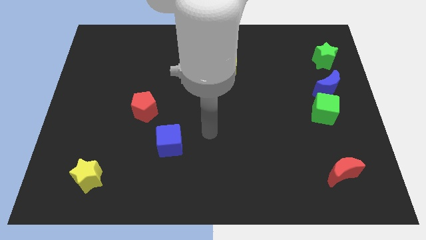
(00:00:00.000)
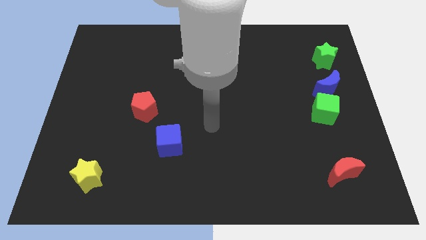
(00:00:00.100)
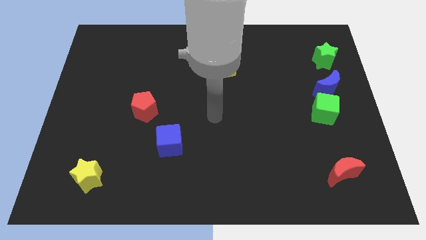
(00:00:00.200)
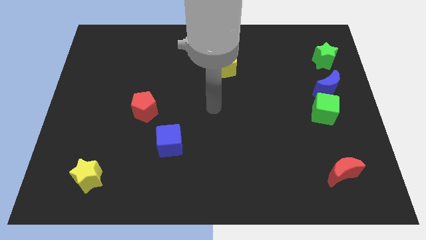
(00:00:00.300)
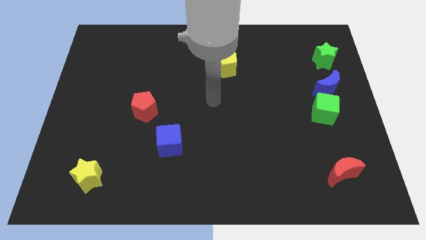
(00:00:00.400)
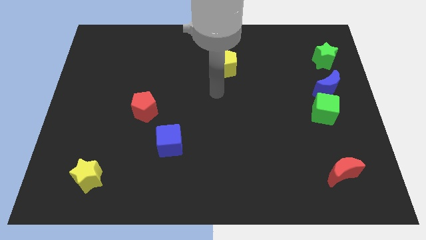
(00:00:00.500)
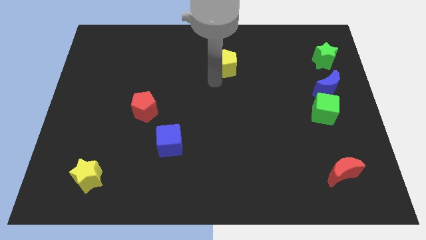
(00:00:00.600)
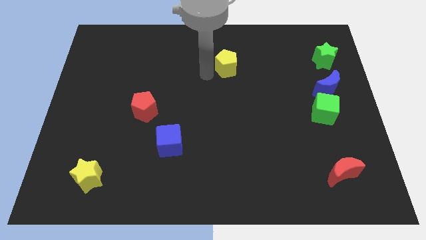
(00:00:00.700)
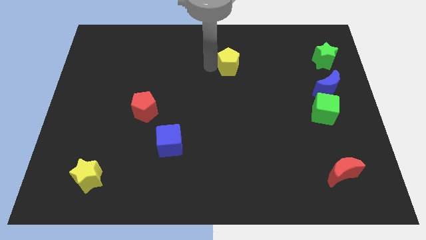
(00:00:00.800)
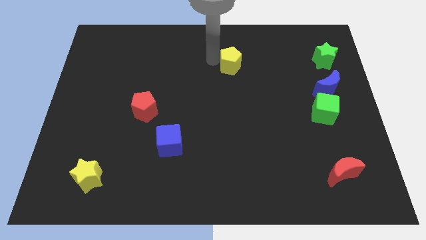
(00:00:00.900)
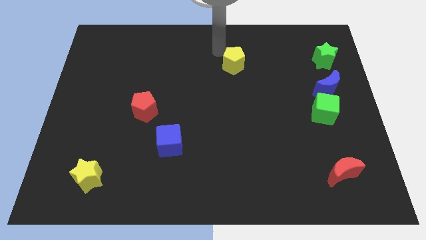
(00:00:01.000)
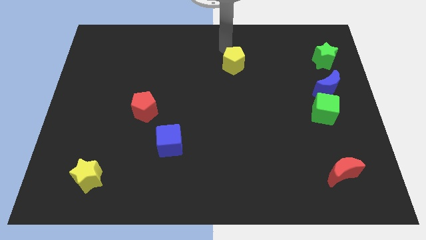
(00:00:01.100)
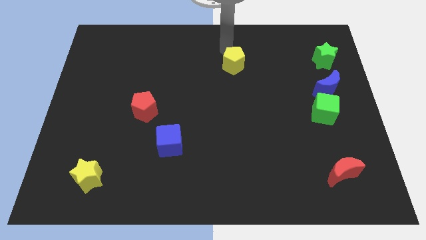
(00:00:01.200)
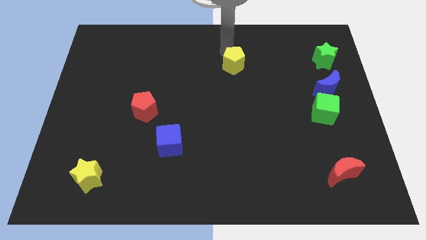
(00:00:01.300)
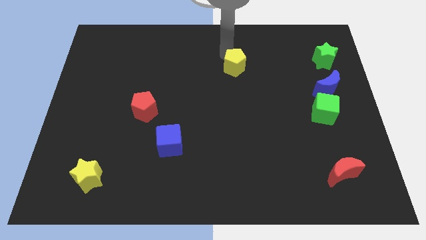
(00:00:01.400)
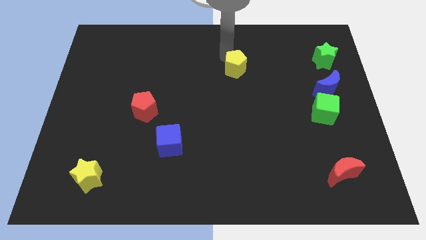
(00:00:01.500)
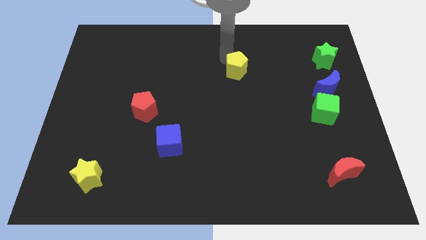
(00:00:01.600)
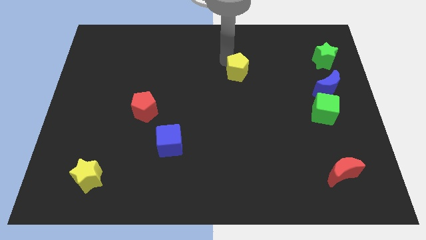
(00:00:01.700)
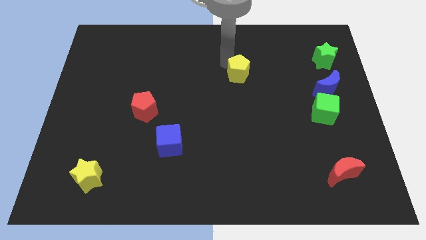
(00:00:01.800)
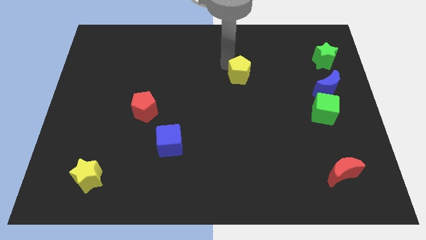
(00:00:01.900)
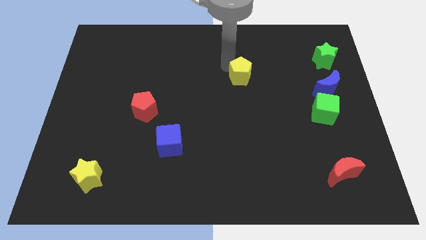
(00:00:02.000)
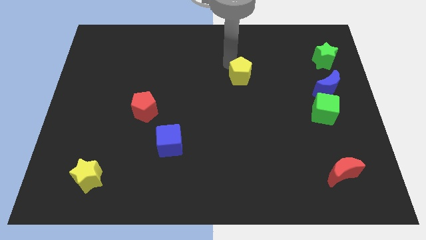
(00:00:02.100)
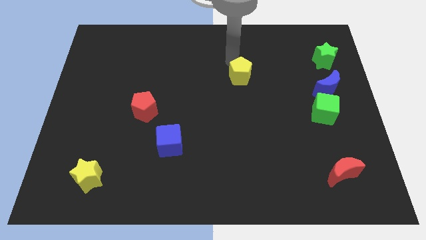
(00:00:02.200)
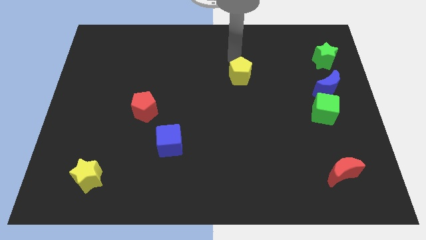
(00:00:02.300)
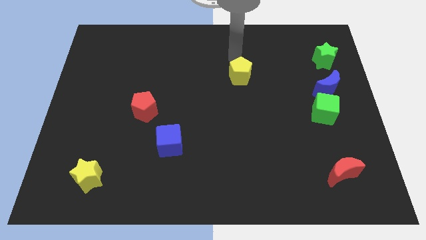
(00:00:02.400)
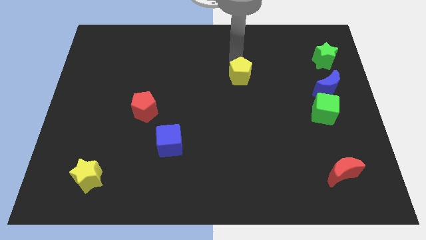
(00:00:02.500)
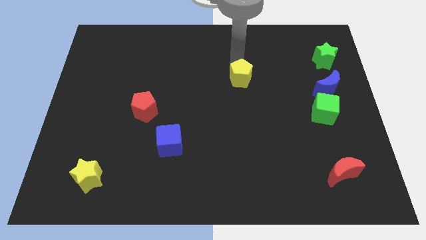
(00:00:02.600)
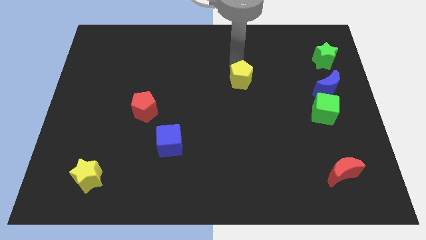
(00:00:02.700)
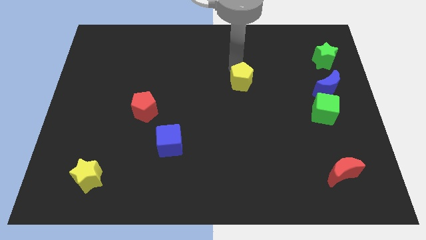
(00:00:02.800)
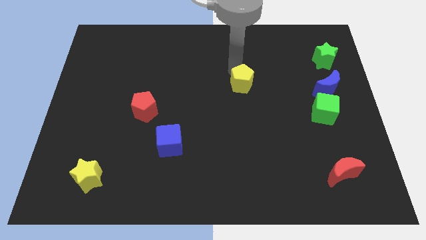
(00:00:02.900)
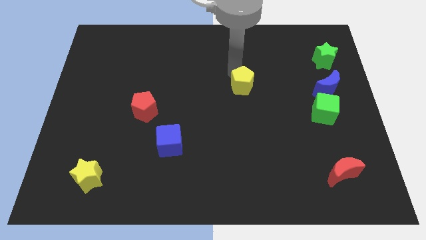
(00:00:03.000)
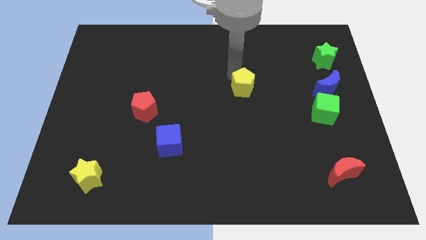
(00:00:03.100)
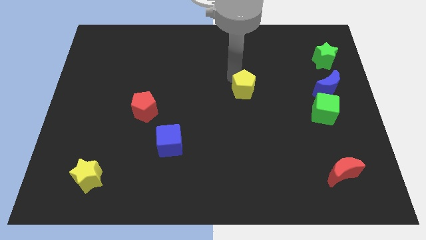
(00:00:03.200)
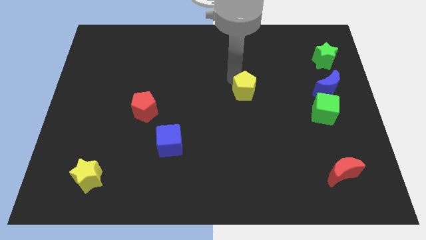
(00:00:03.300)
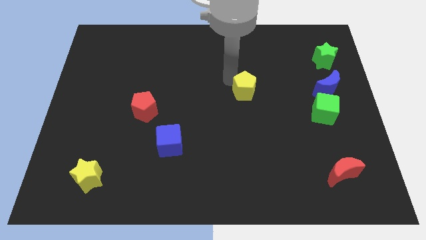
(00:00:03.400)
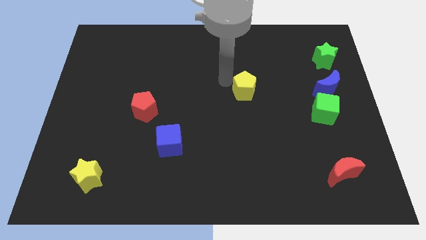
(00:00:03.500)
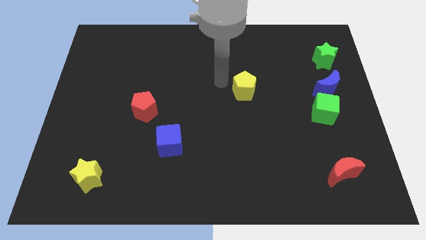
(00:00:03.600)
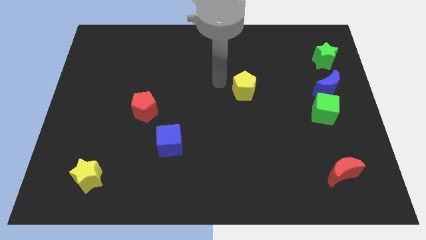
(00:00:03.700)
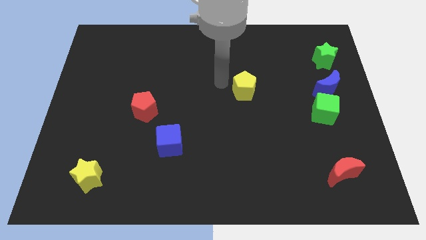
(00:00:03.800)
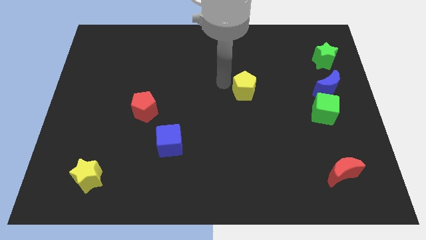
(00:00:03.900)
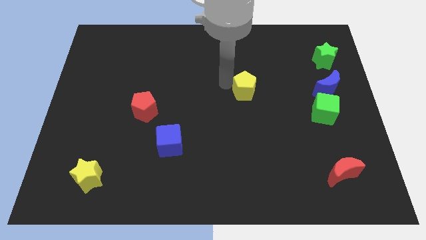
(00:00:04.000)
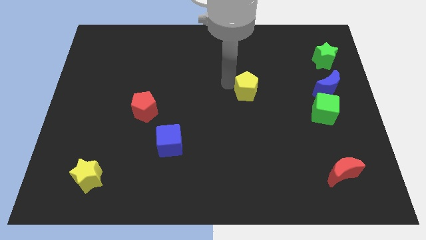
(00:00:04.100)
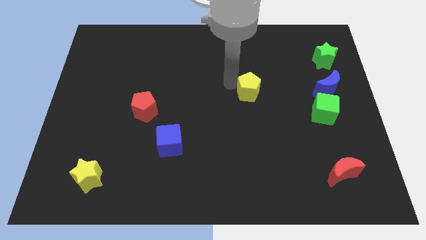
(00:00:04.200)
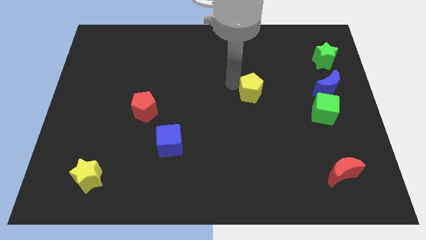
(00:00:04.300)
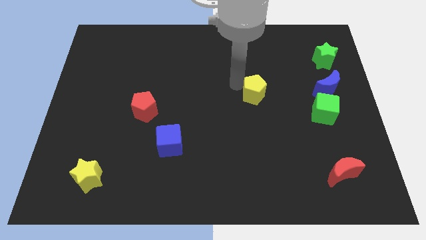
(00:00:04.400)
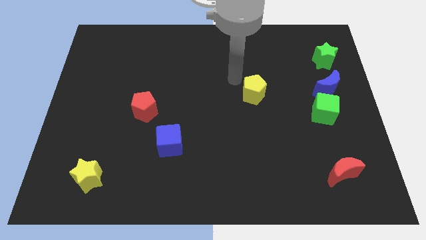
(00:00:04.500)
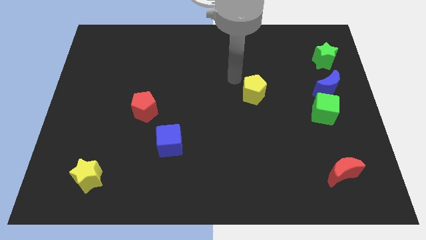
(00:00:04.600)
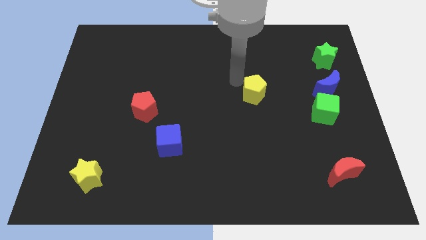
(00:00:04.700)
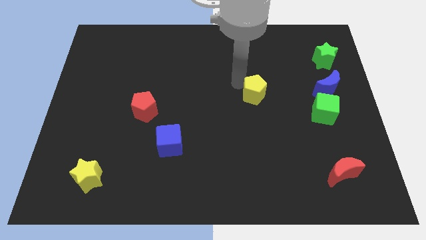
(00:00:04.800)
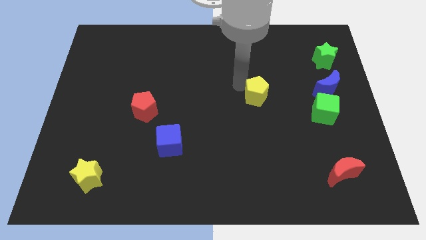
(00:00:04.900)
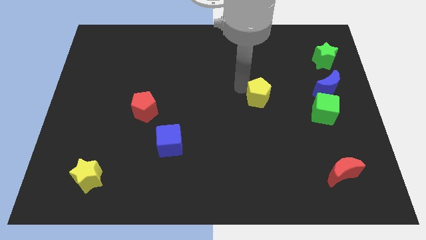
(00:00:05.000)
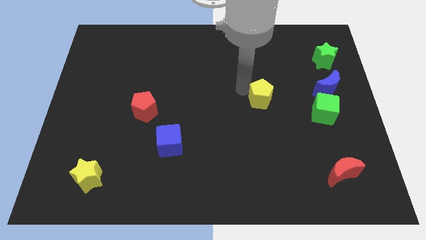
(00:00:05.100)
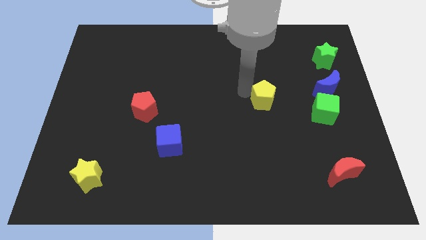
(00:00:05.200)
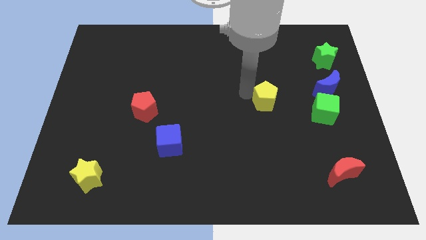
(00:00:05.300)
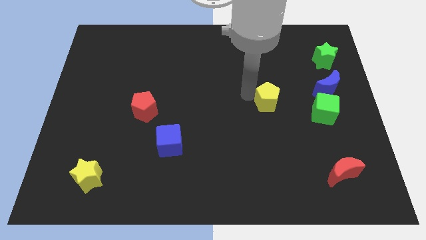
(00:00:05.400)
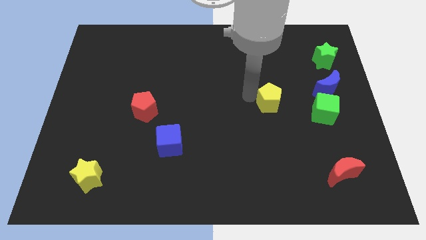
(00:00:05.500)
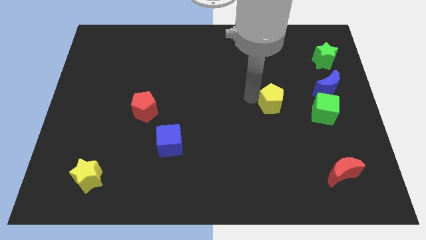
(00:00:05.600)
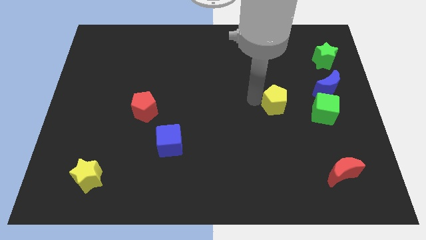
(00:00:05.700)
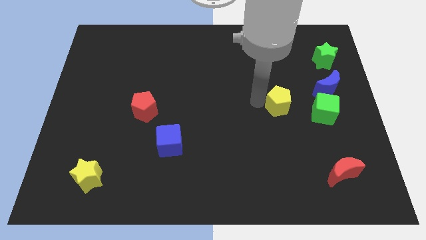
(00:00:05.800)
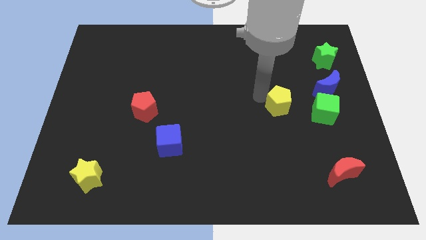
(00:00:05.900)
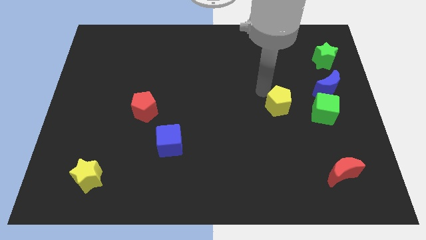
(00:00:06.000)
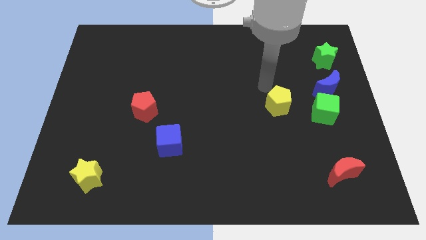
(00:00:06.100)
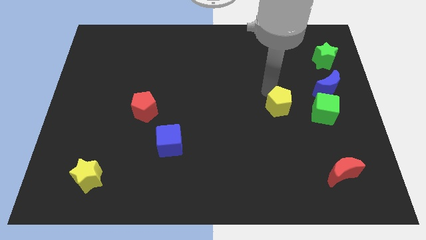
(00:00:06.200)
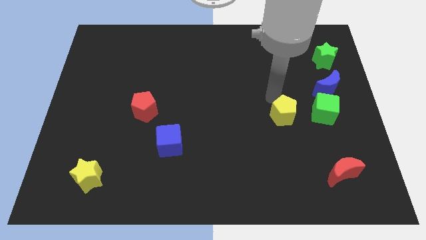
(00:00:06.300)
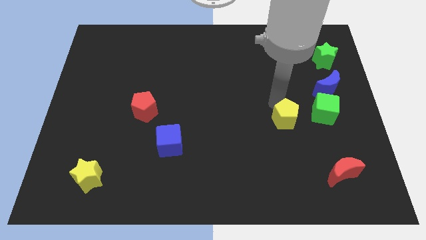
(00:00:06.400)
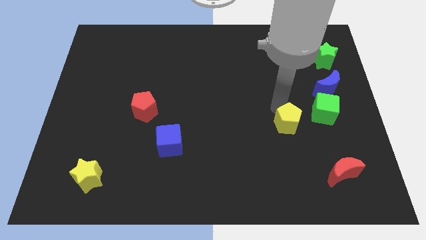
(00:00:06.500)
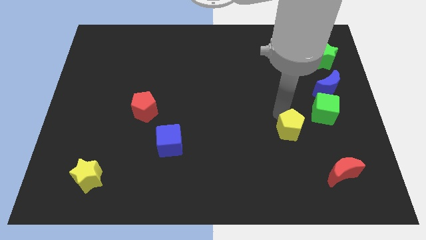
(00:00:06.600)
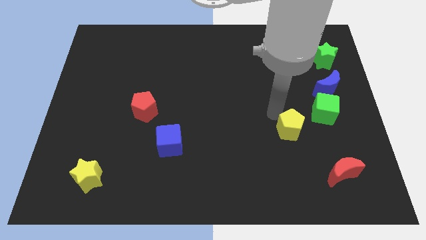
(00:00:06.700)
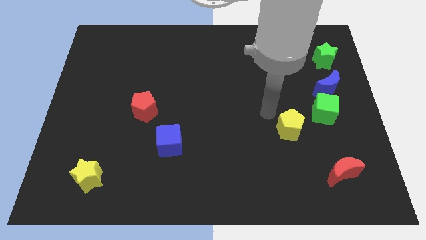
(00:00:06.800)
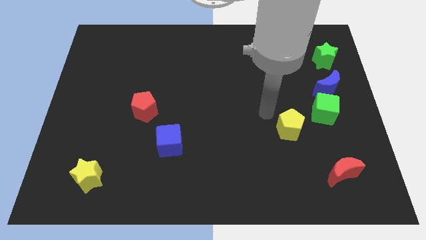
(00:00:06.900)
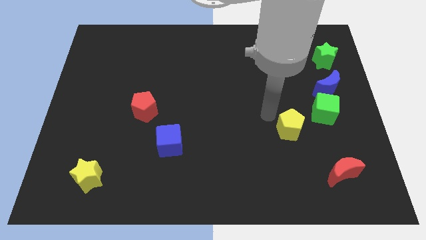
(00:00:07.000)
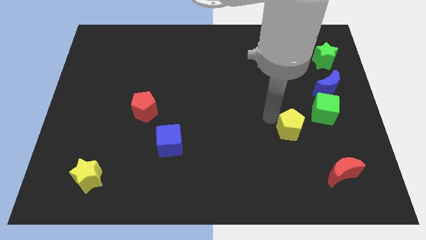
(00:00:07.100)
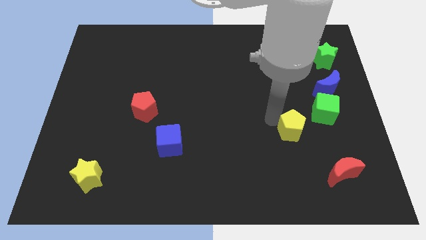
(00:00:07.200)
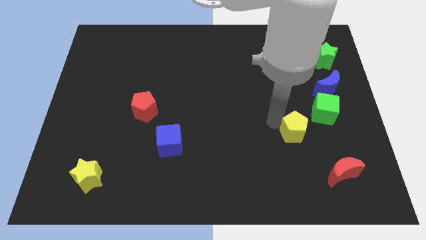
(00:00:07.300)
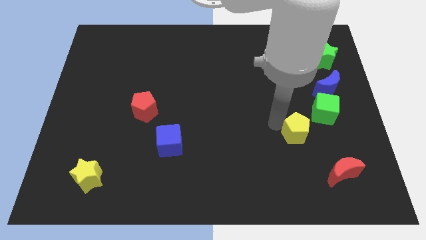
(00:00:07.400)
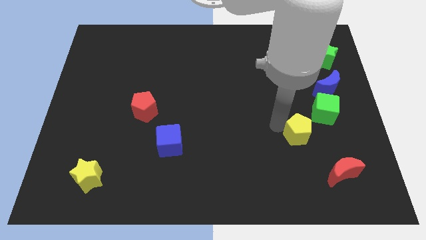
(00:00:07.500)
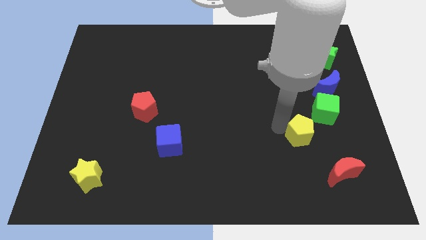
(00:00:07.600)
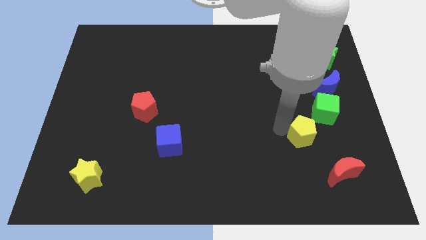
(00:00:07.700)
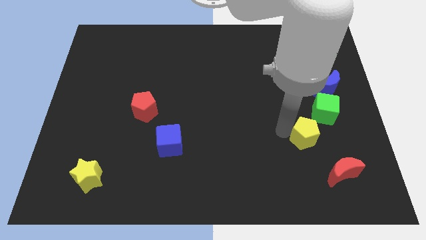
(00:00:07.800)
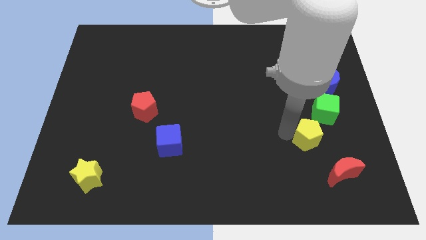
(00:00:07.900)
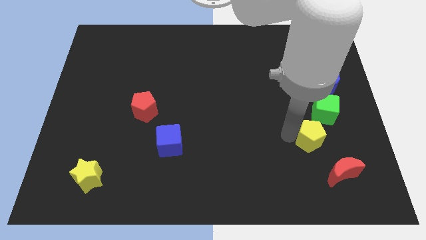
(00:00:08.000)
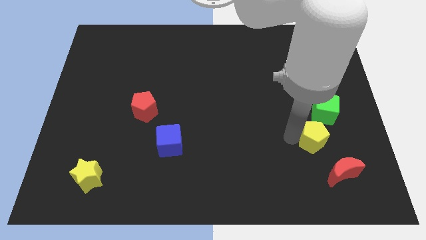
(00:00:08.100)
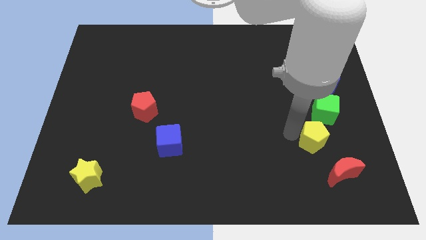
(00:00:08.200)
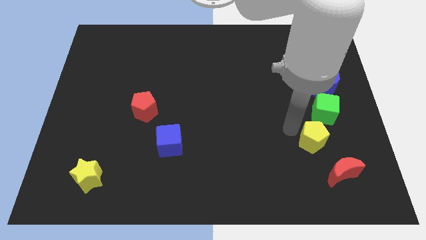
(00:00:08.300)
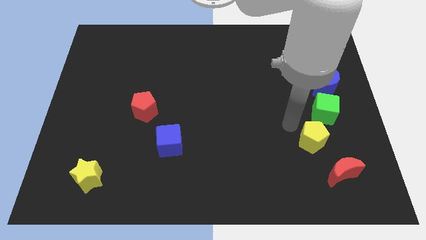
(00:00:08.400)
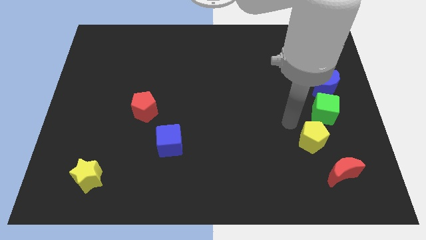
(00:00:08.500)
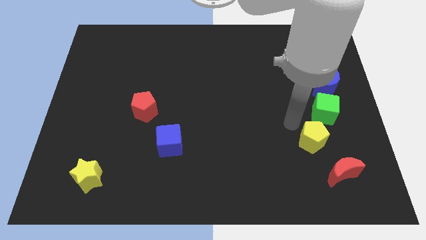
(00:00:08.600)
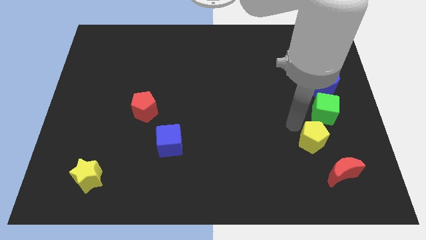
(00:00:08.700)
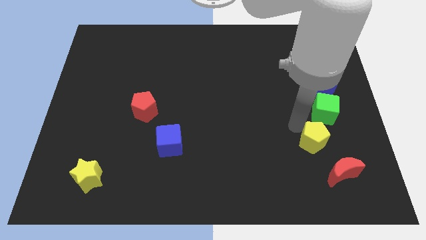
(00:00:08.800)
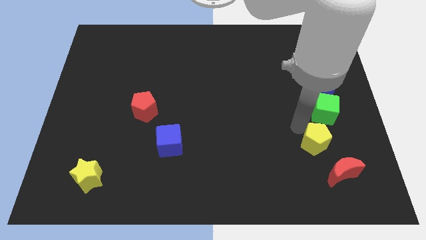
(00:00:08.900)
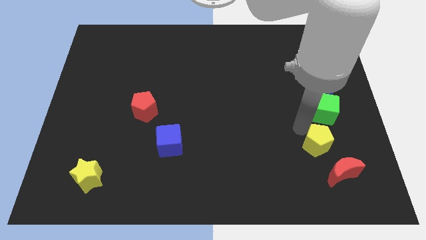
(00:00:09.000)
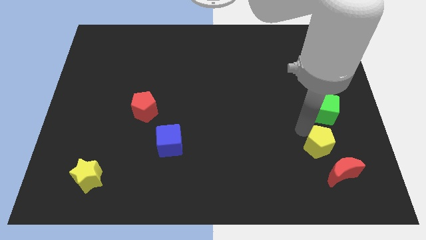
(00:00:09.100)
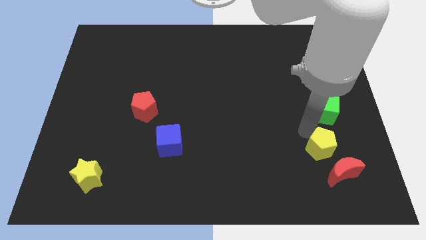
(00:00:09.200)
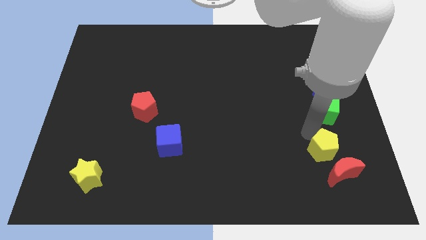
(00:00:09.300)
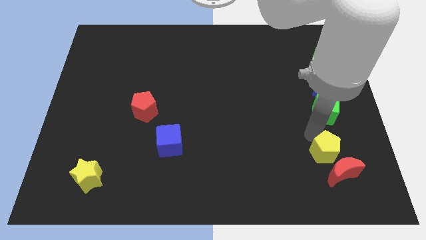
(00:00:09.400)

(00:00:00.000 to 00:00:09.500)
move the yellow pentagon next to the red moon
